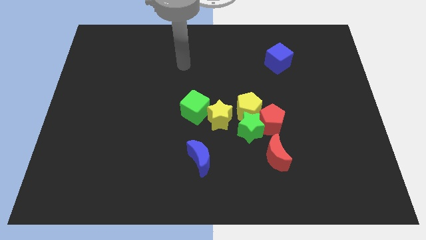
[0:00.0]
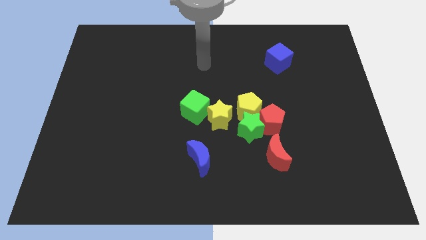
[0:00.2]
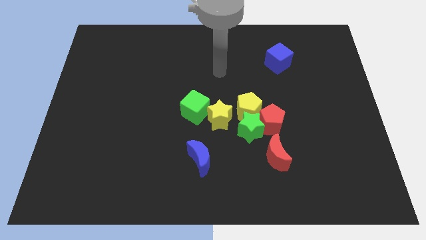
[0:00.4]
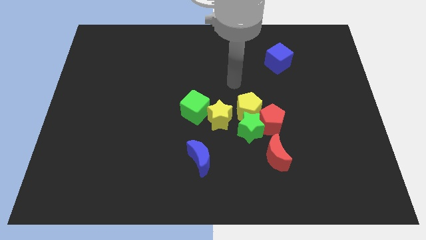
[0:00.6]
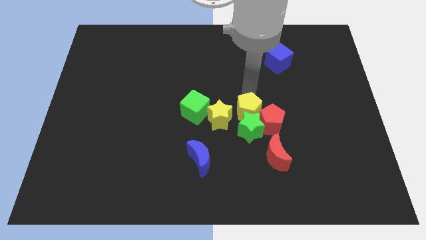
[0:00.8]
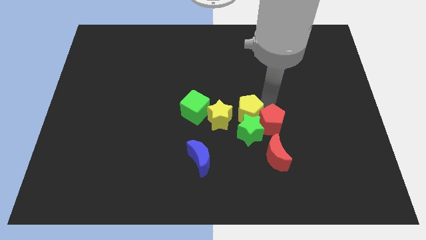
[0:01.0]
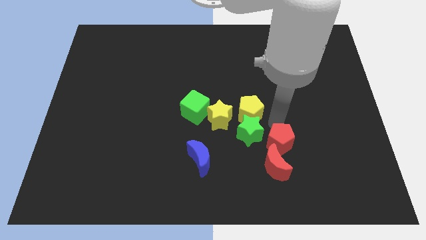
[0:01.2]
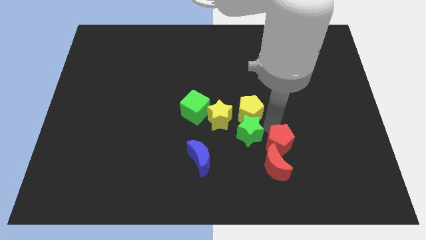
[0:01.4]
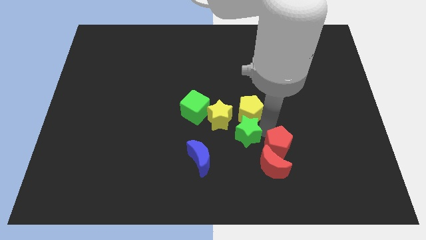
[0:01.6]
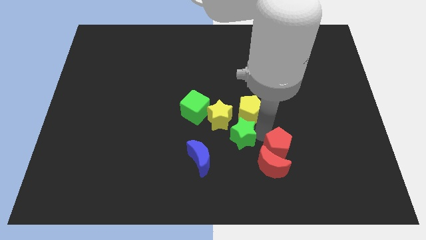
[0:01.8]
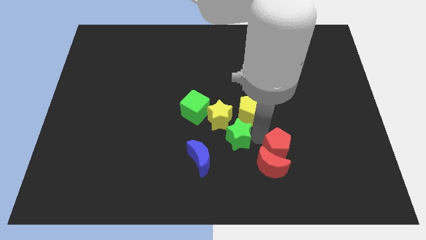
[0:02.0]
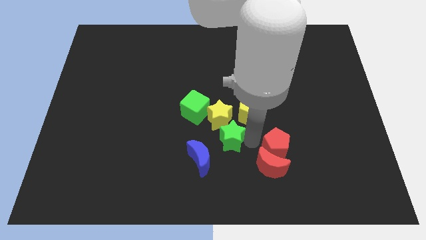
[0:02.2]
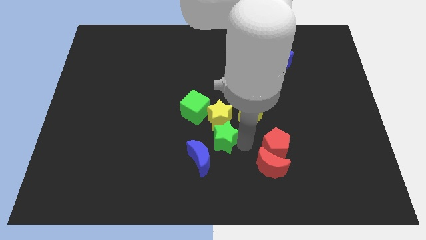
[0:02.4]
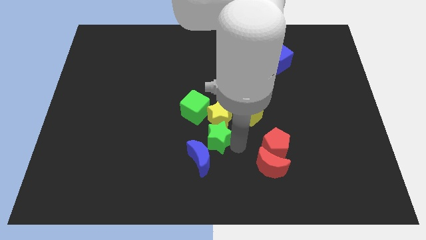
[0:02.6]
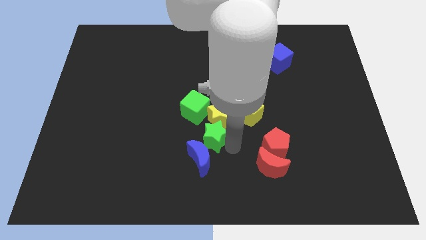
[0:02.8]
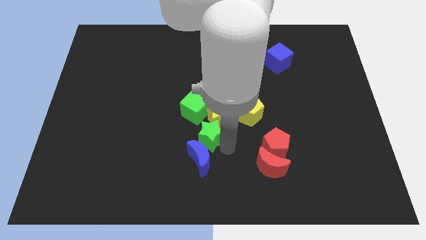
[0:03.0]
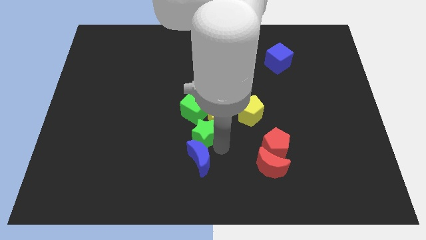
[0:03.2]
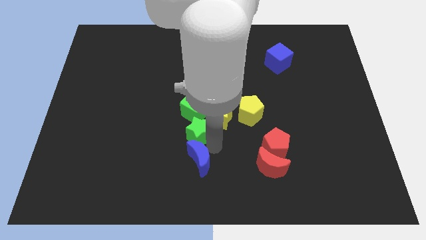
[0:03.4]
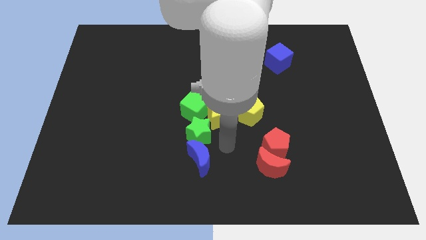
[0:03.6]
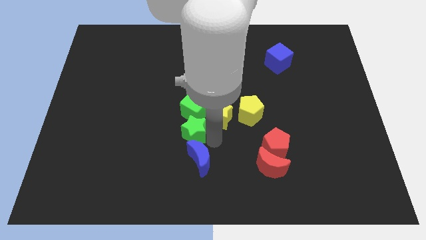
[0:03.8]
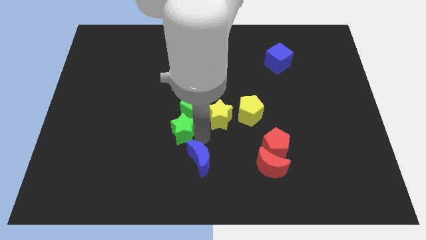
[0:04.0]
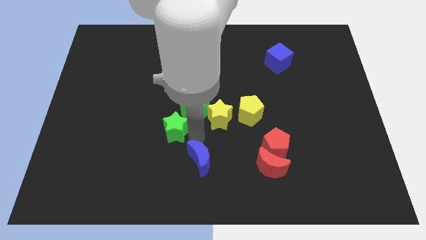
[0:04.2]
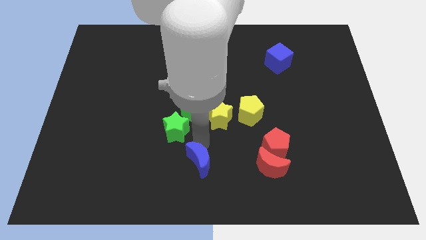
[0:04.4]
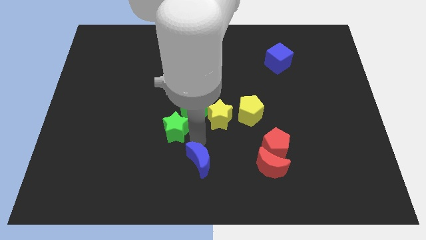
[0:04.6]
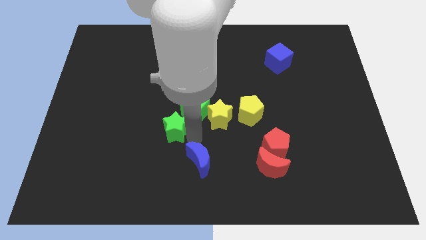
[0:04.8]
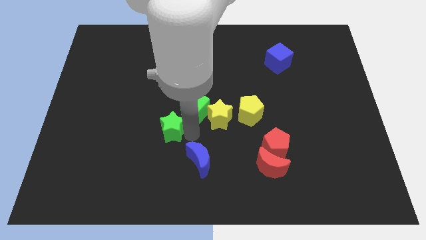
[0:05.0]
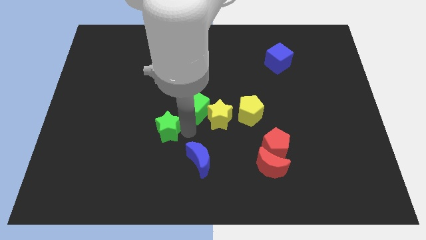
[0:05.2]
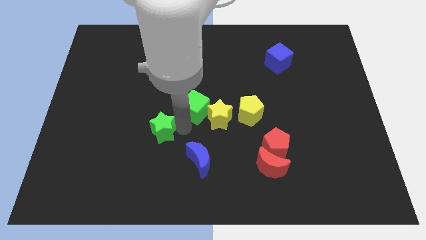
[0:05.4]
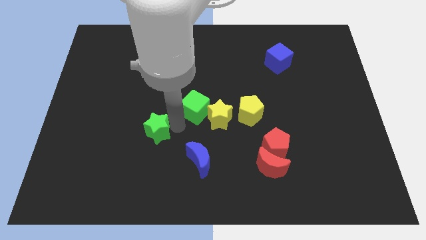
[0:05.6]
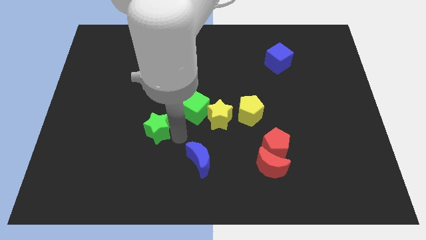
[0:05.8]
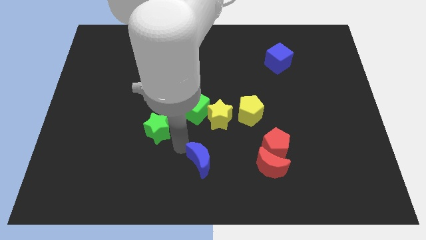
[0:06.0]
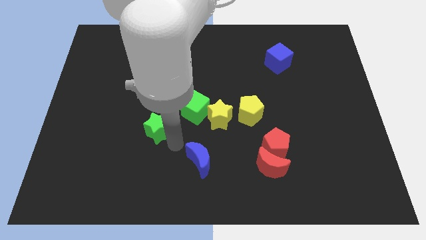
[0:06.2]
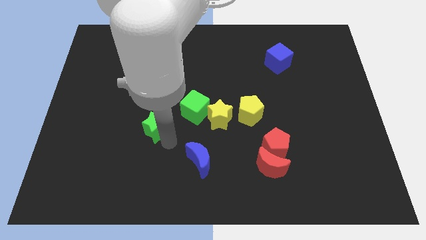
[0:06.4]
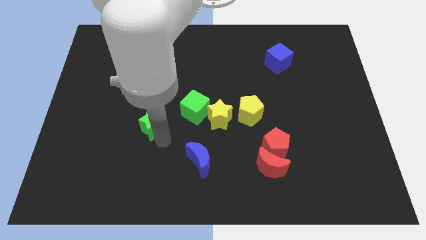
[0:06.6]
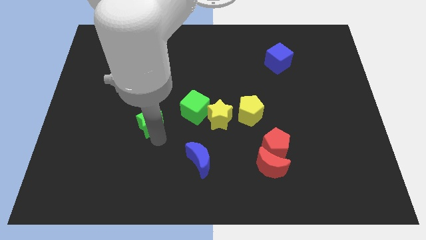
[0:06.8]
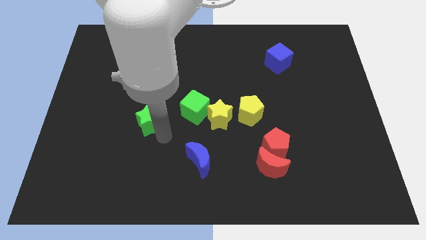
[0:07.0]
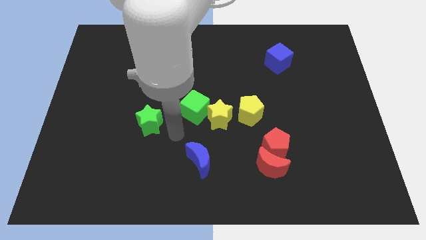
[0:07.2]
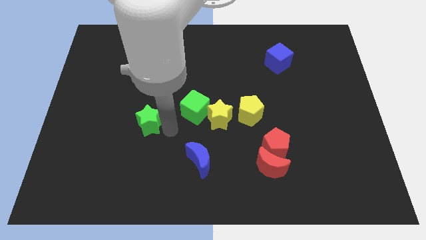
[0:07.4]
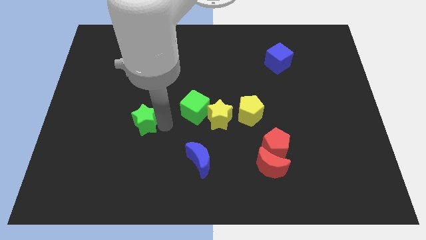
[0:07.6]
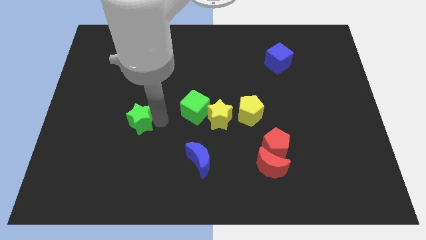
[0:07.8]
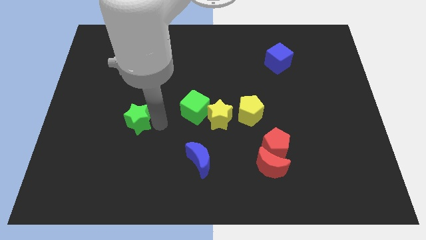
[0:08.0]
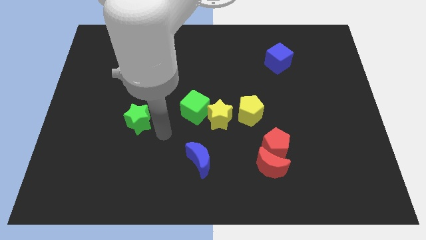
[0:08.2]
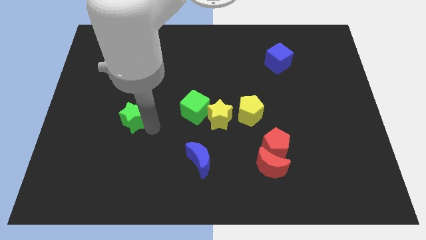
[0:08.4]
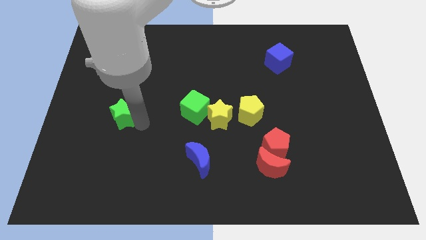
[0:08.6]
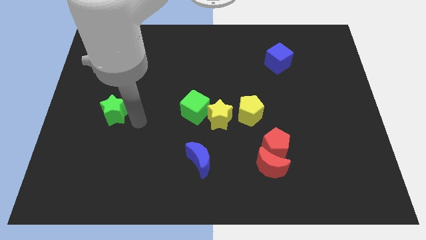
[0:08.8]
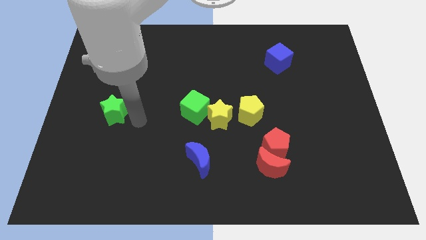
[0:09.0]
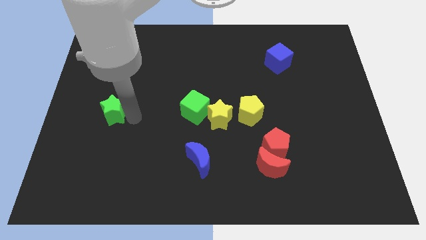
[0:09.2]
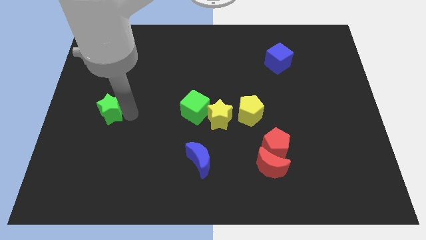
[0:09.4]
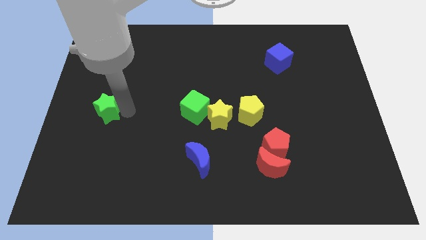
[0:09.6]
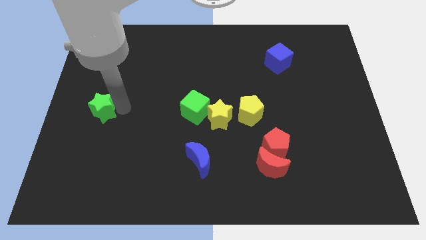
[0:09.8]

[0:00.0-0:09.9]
put the green star to the left side
